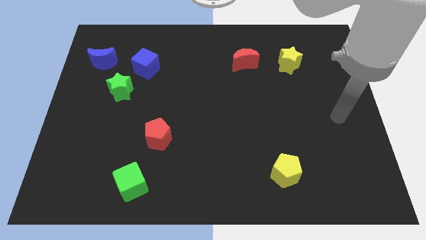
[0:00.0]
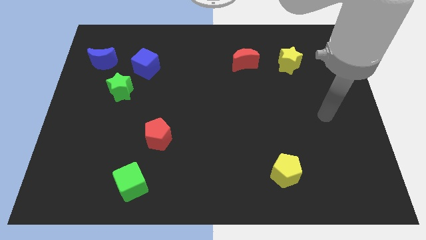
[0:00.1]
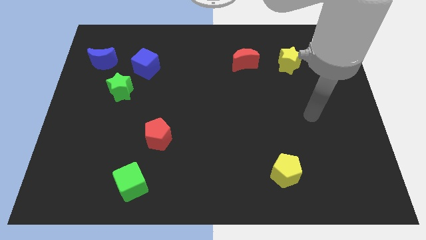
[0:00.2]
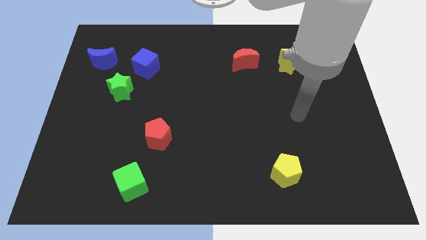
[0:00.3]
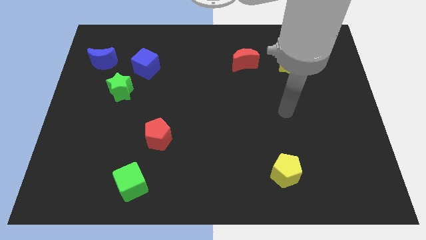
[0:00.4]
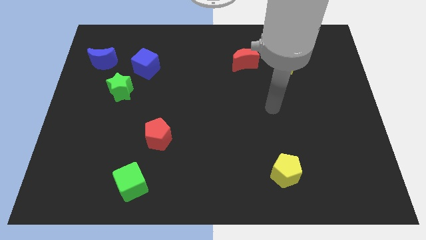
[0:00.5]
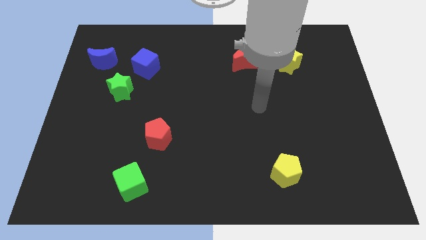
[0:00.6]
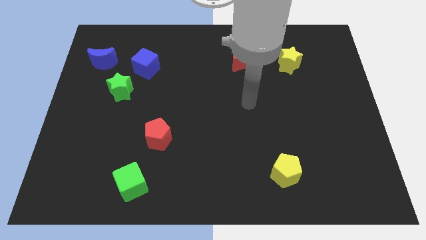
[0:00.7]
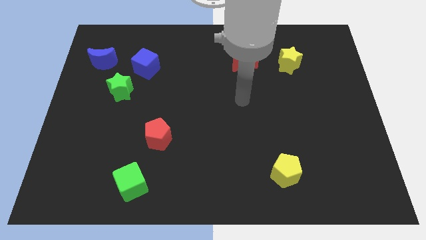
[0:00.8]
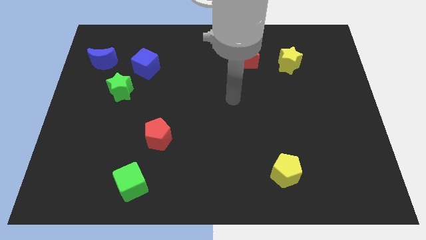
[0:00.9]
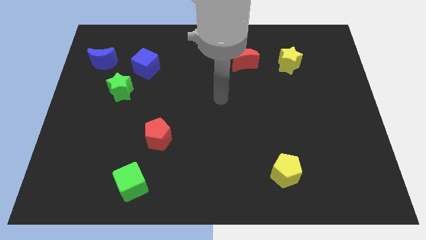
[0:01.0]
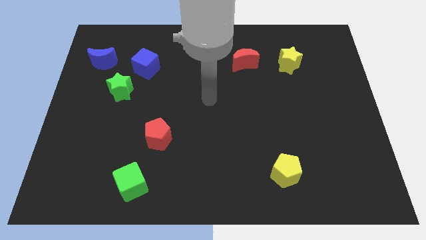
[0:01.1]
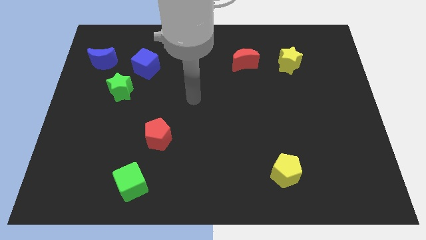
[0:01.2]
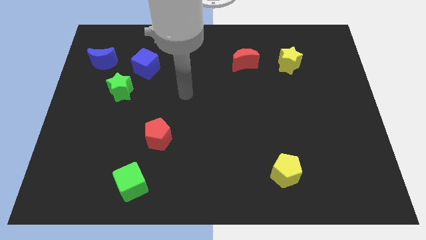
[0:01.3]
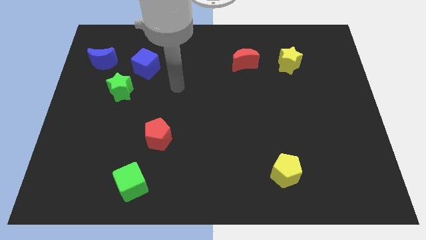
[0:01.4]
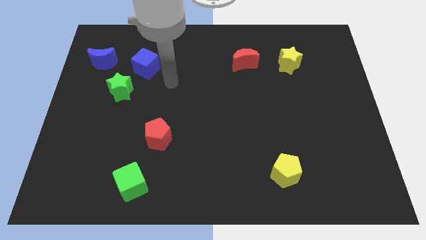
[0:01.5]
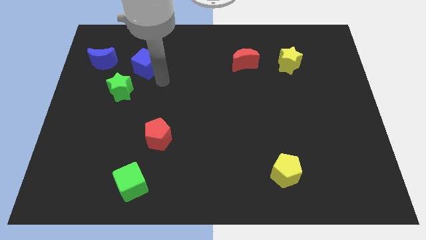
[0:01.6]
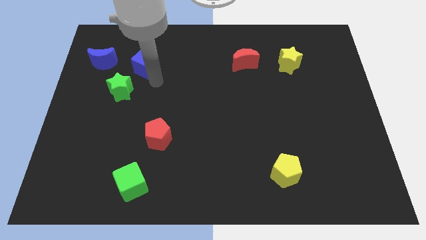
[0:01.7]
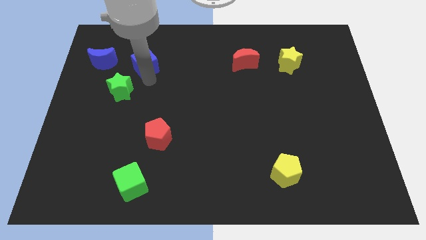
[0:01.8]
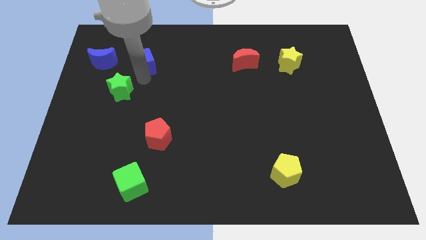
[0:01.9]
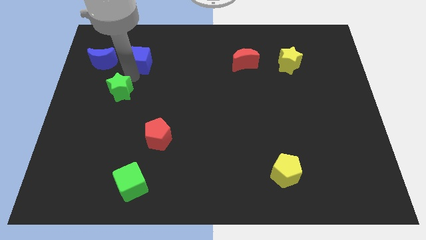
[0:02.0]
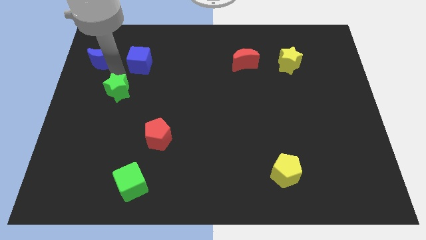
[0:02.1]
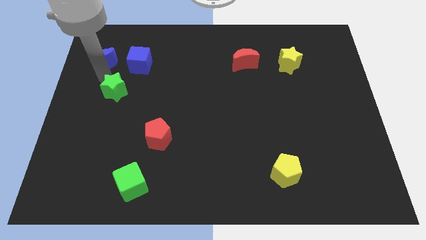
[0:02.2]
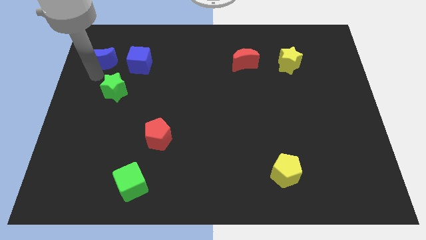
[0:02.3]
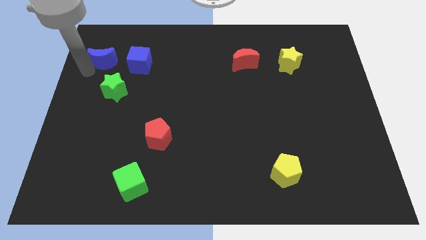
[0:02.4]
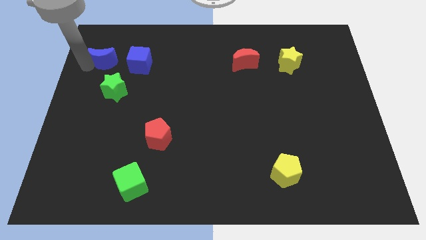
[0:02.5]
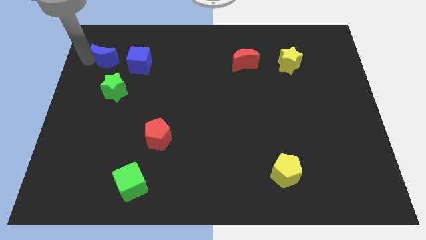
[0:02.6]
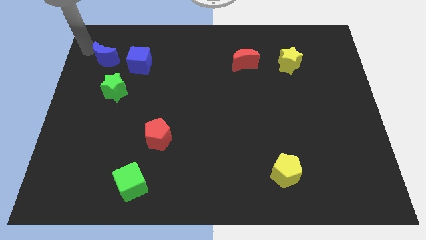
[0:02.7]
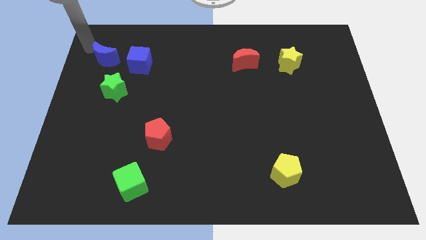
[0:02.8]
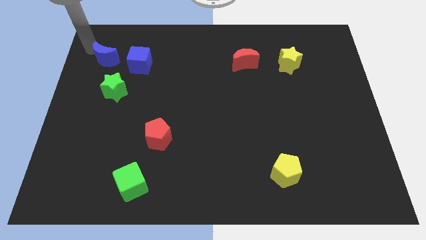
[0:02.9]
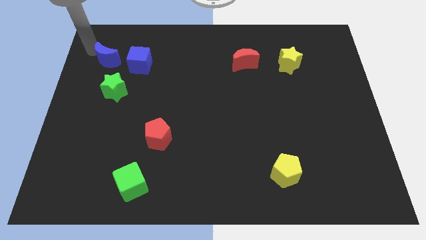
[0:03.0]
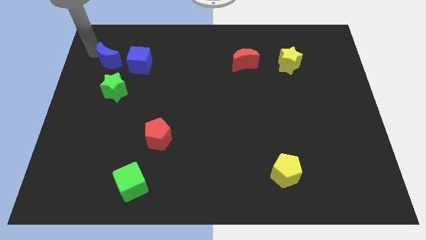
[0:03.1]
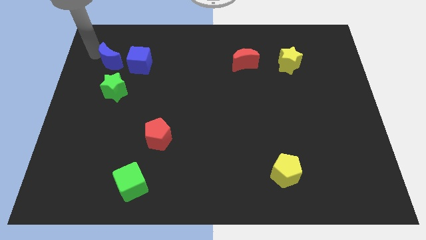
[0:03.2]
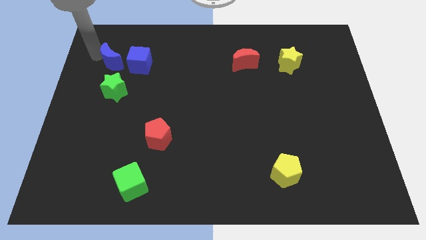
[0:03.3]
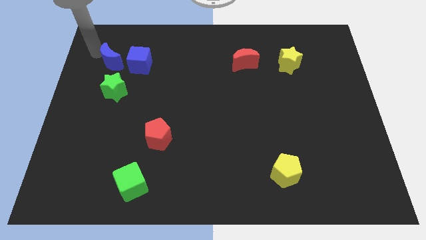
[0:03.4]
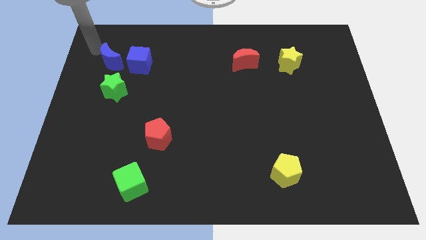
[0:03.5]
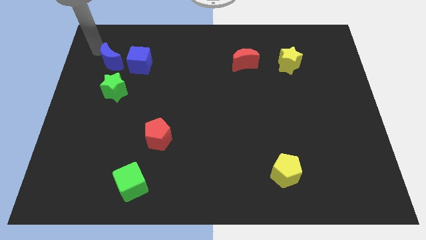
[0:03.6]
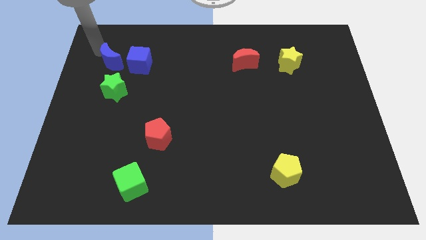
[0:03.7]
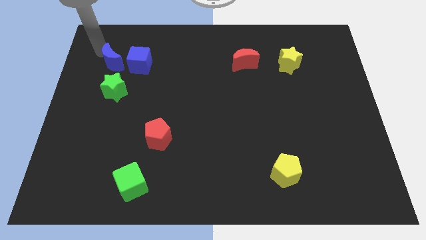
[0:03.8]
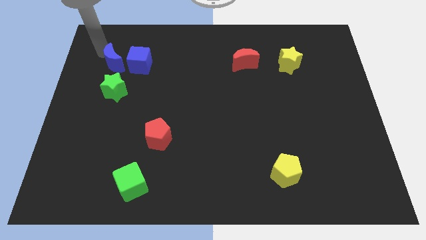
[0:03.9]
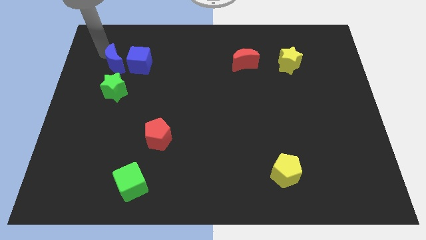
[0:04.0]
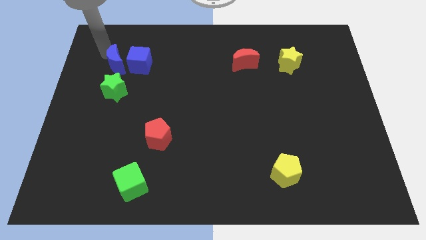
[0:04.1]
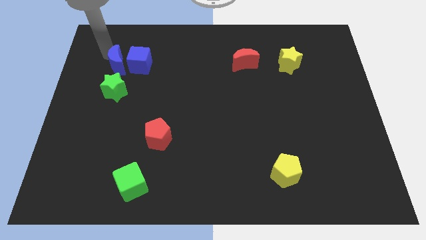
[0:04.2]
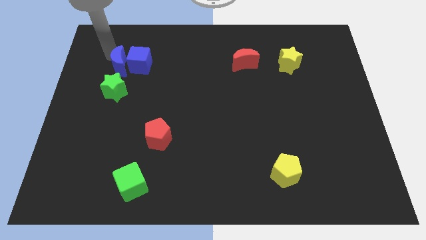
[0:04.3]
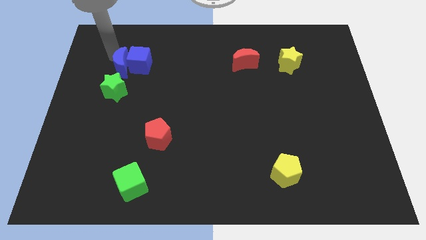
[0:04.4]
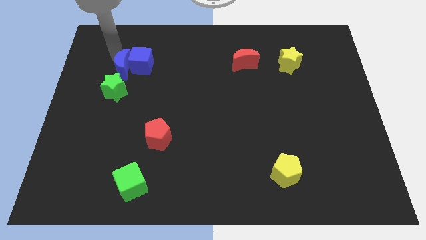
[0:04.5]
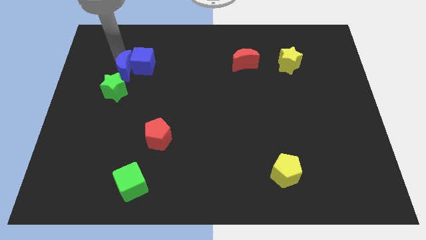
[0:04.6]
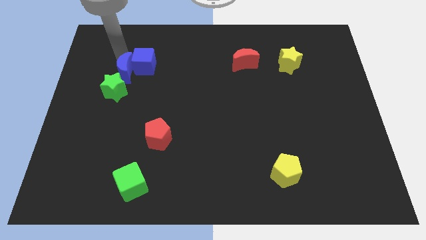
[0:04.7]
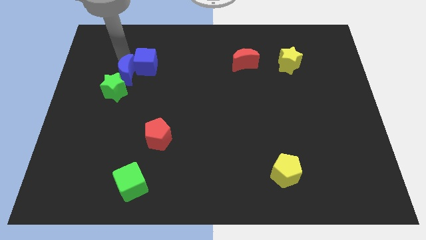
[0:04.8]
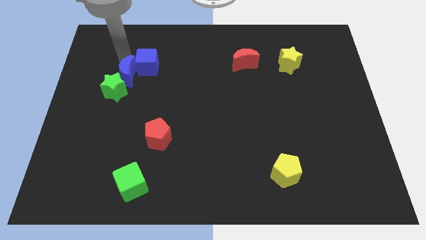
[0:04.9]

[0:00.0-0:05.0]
put the blue moon to the bottom side of the blue cube

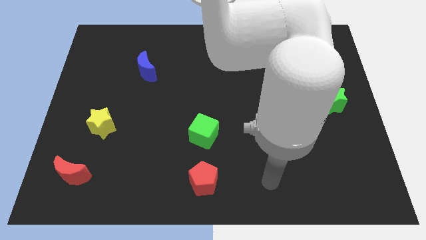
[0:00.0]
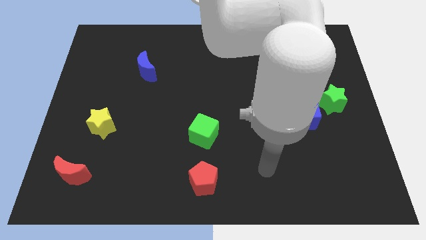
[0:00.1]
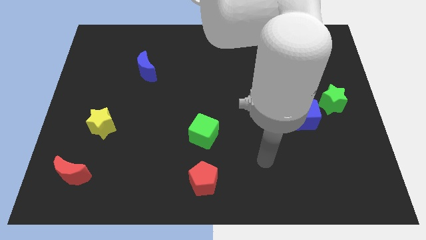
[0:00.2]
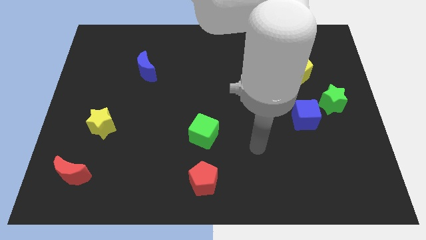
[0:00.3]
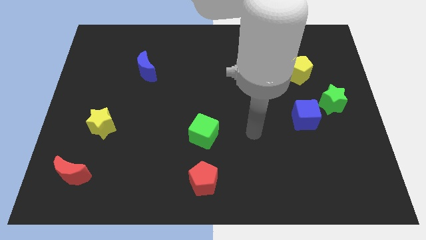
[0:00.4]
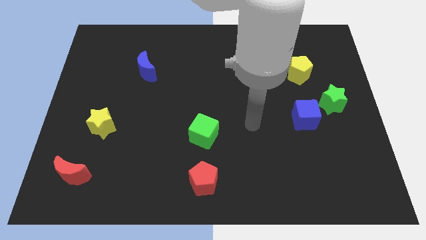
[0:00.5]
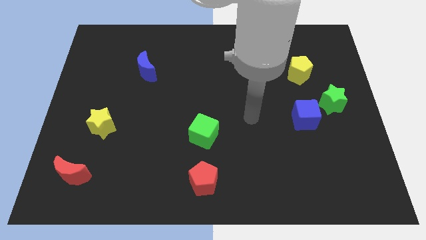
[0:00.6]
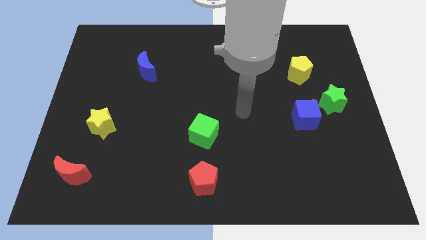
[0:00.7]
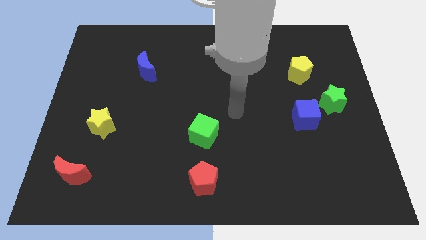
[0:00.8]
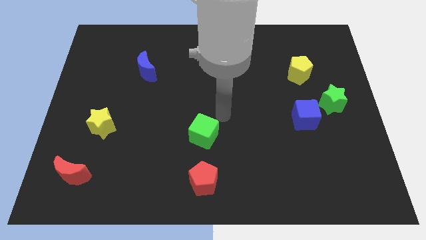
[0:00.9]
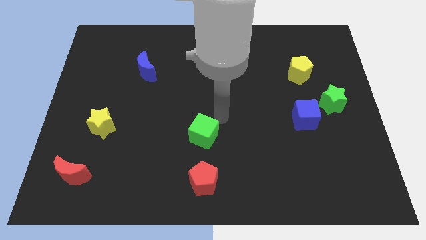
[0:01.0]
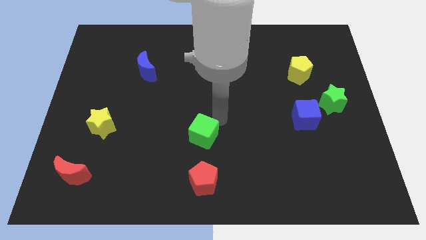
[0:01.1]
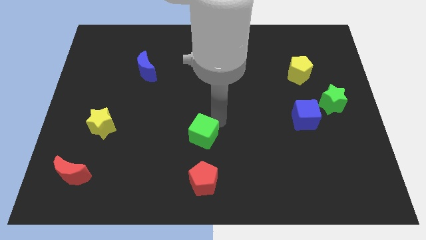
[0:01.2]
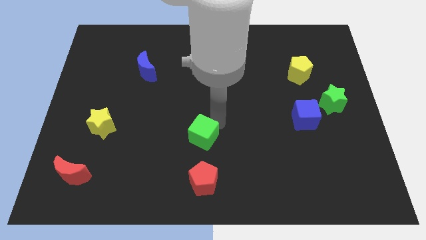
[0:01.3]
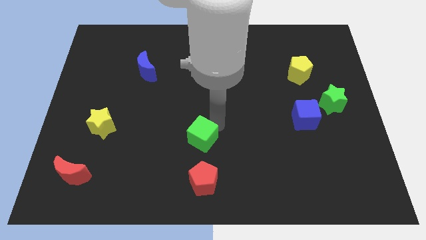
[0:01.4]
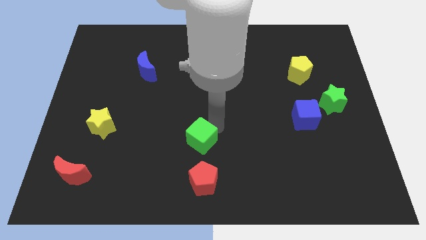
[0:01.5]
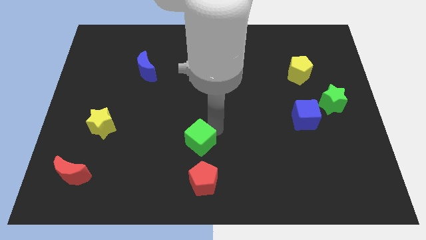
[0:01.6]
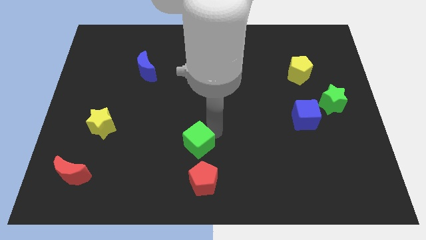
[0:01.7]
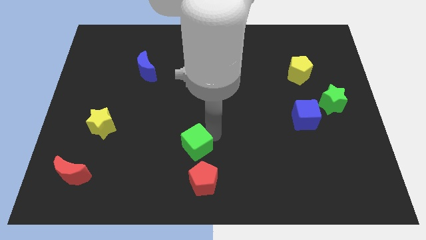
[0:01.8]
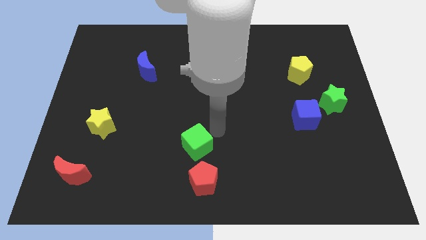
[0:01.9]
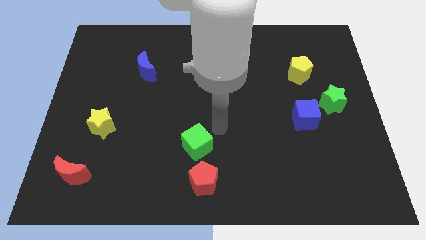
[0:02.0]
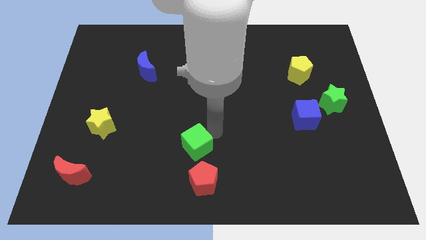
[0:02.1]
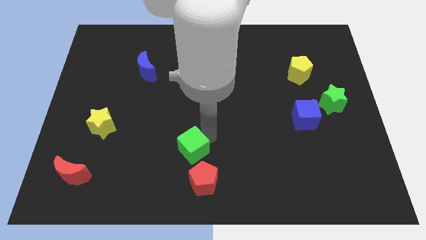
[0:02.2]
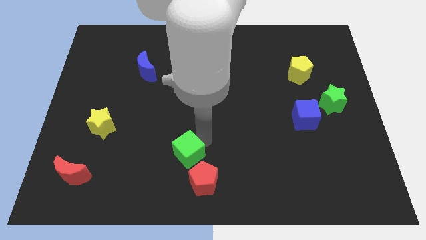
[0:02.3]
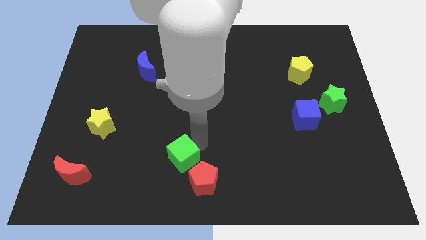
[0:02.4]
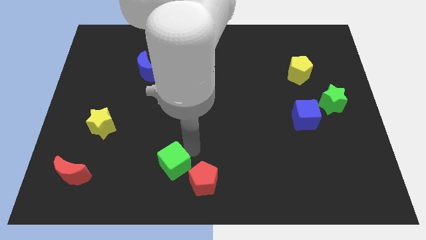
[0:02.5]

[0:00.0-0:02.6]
move the green cube left of the red pentagon
